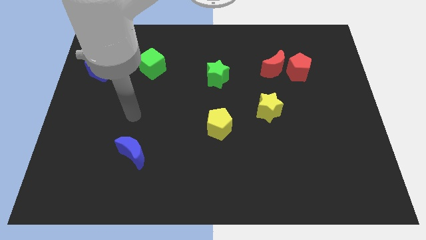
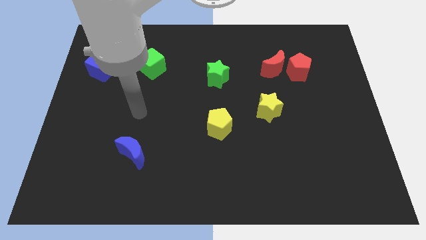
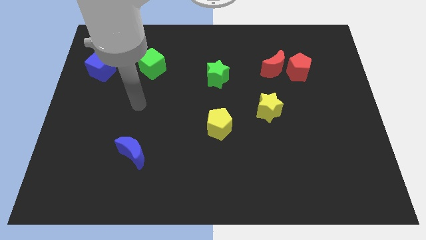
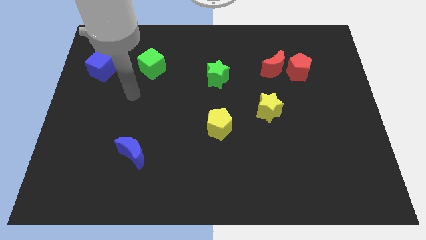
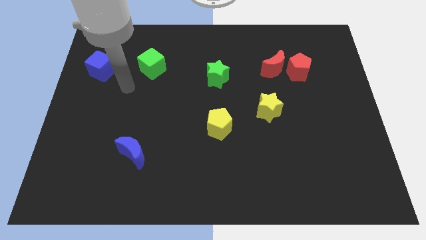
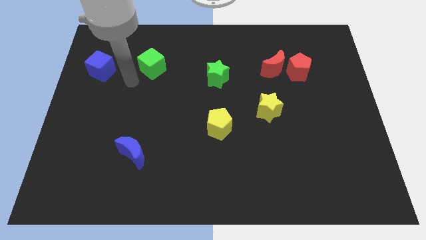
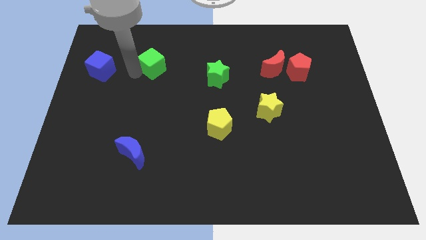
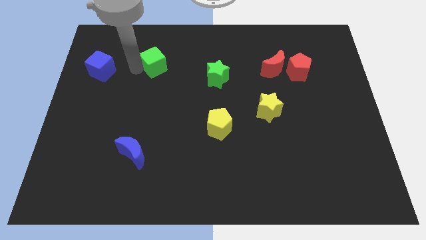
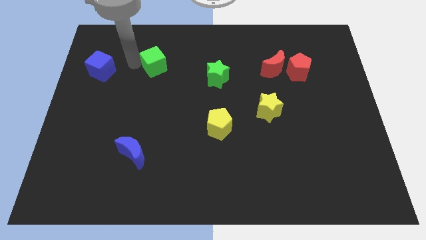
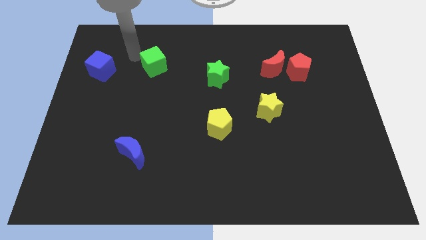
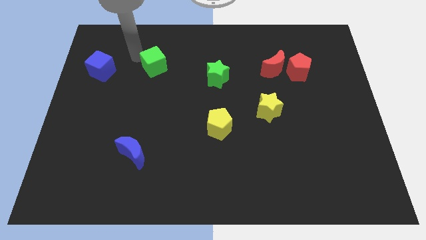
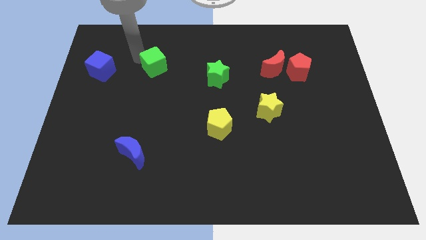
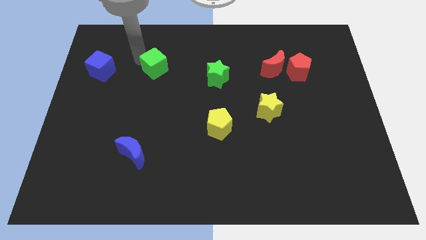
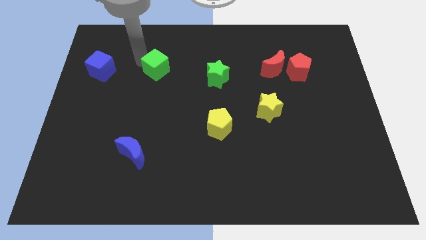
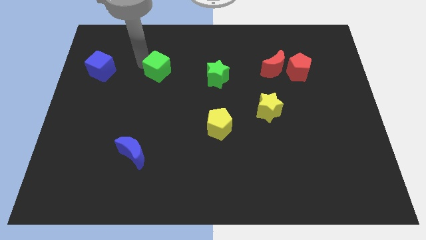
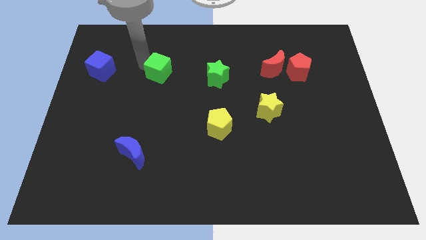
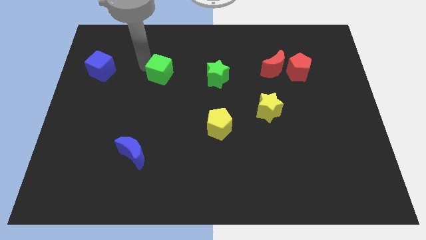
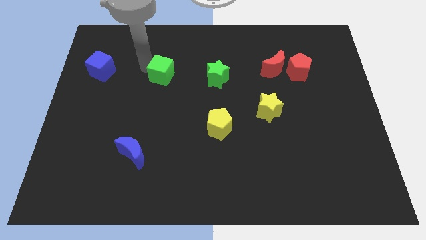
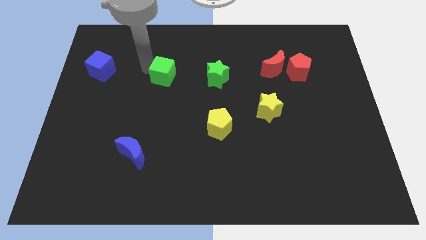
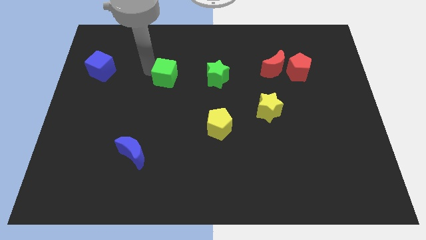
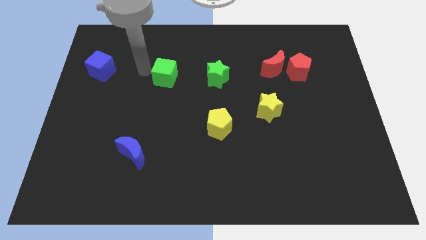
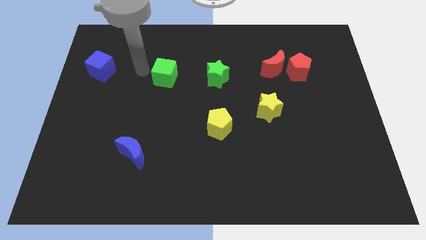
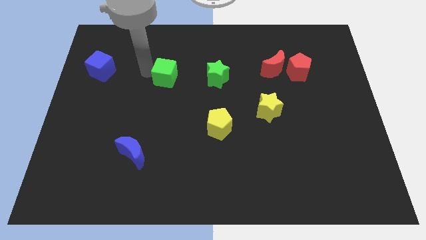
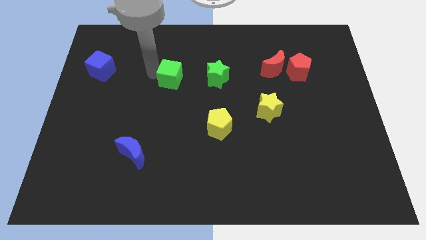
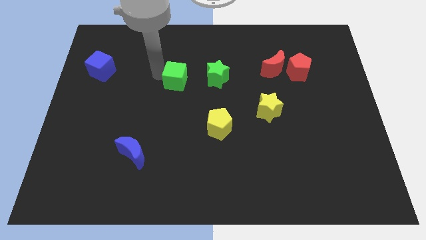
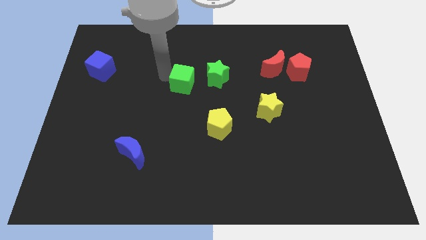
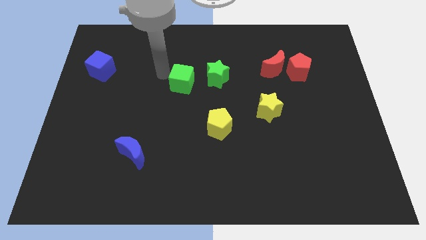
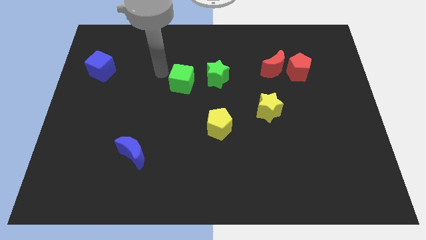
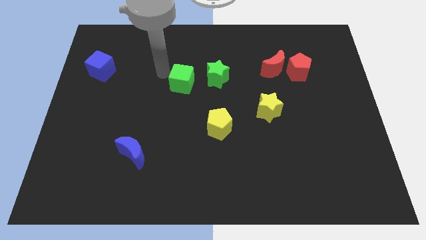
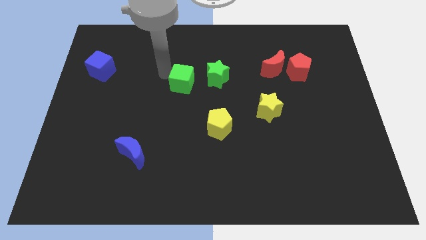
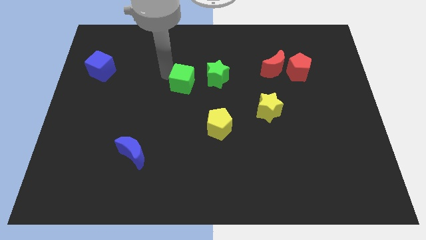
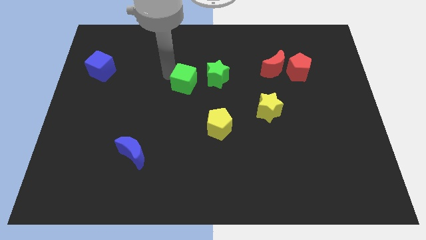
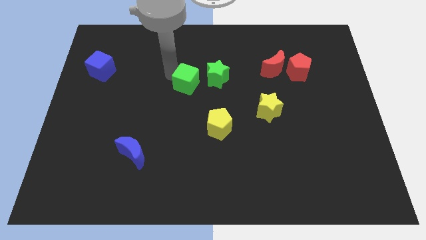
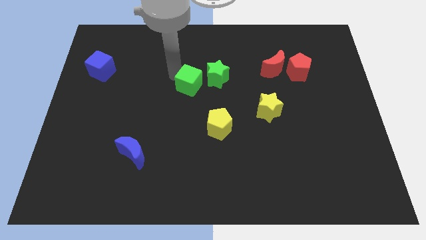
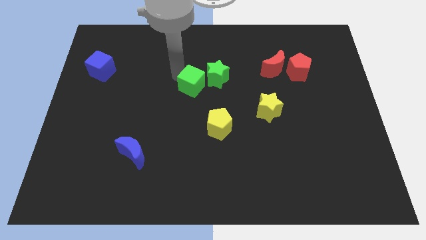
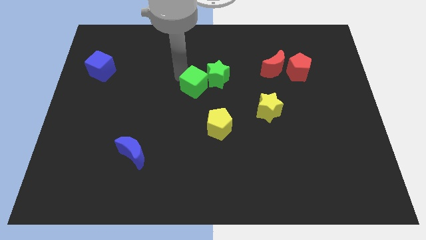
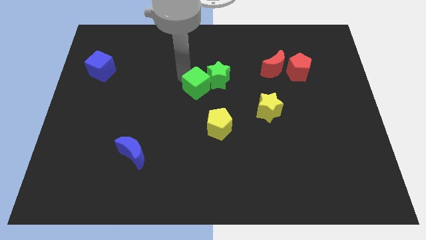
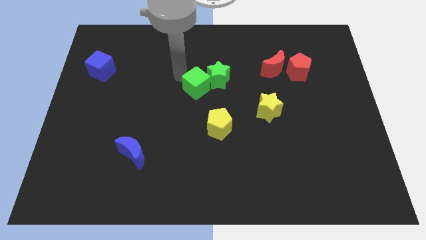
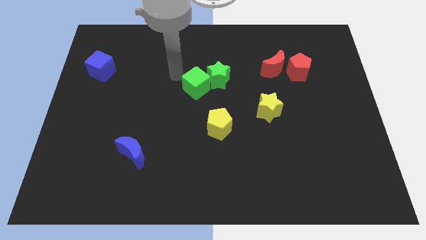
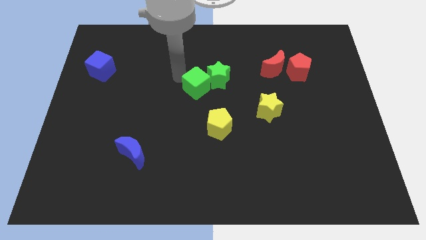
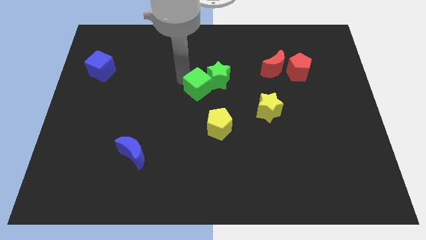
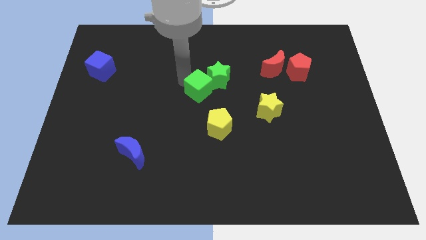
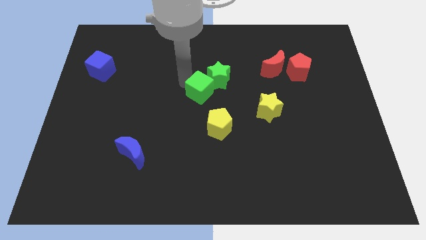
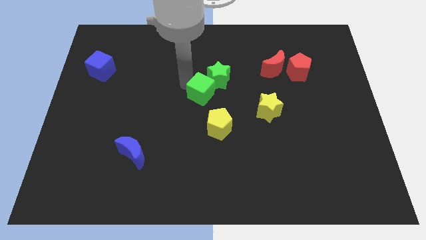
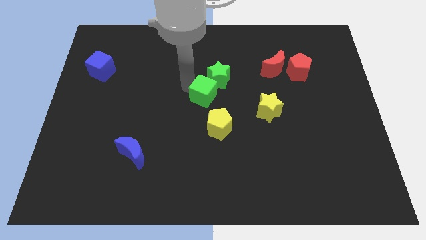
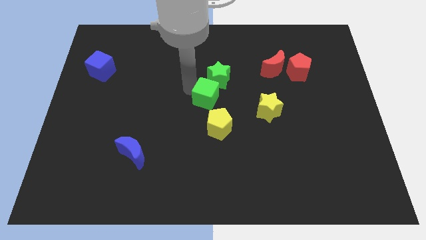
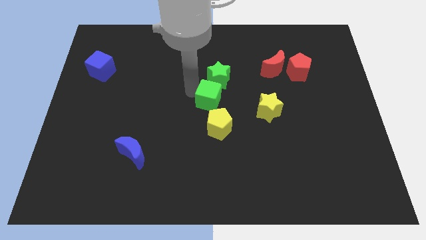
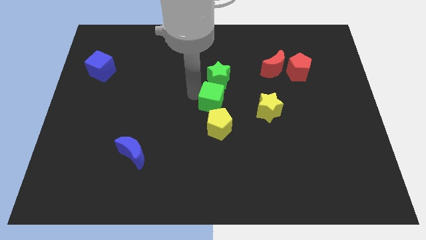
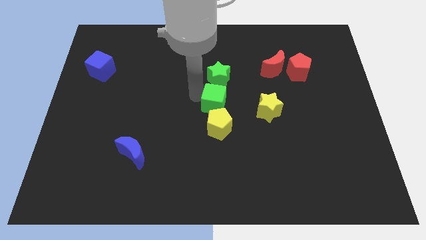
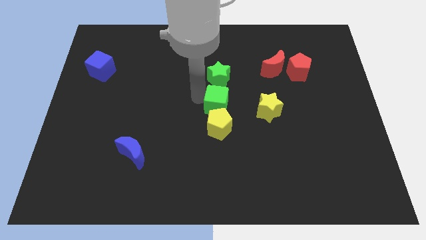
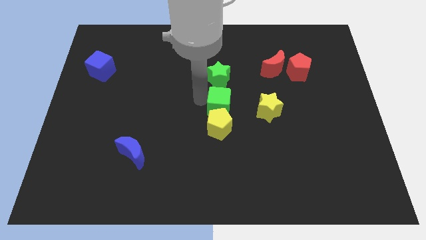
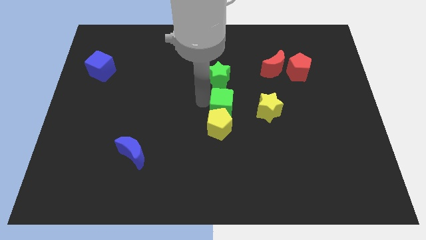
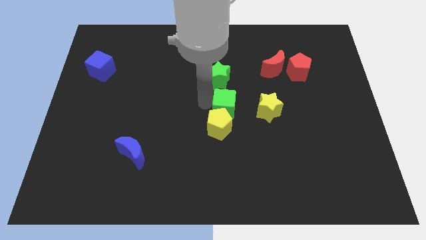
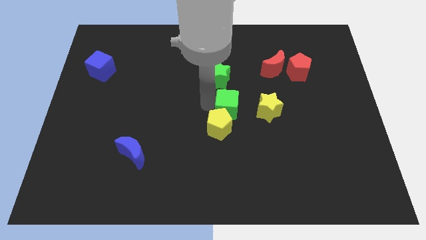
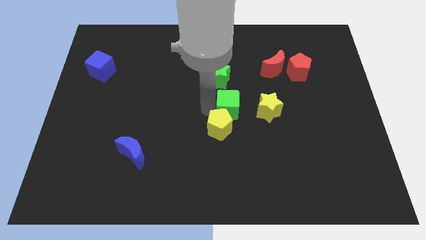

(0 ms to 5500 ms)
slide the green cube diagonally down and to the right of the green star

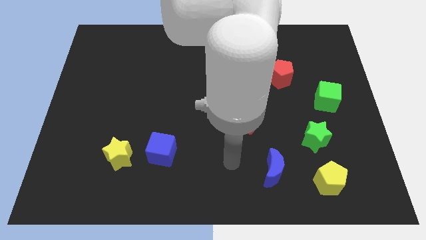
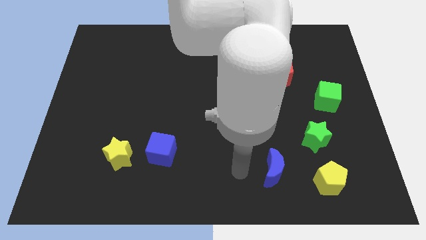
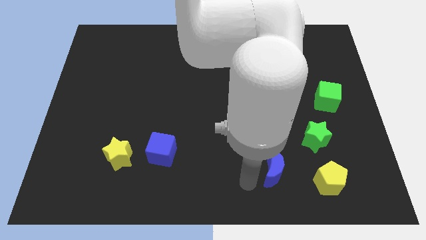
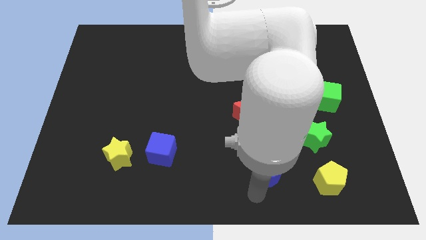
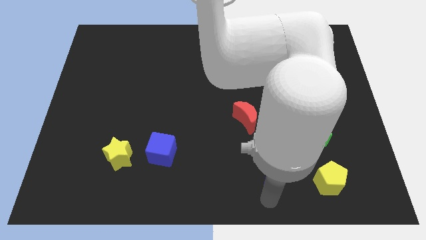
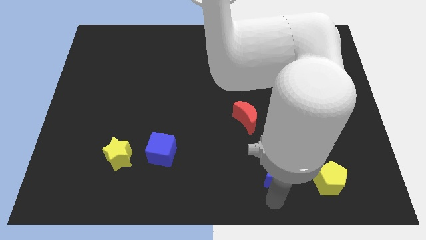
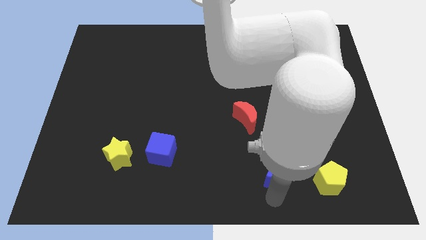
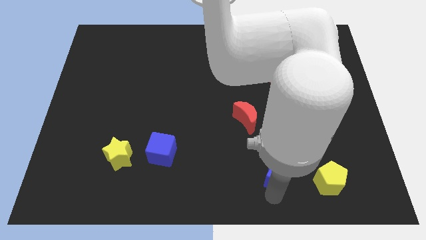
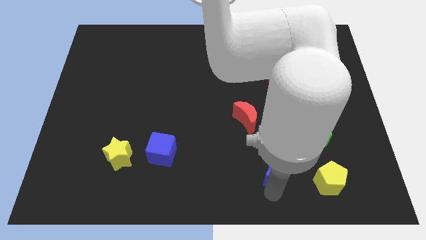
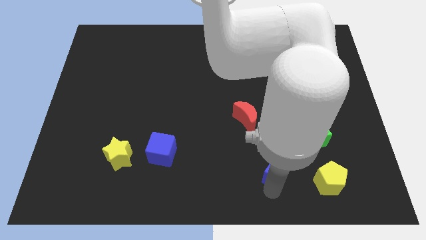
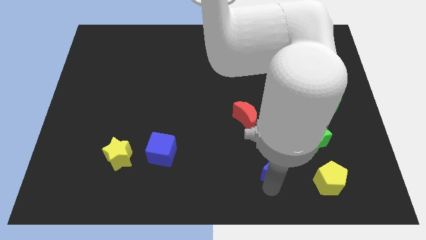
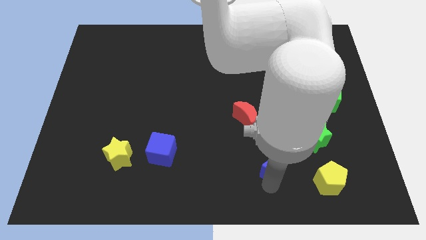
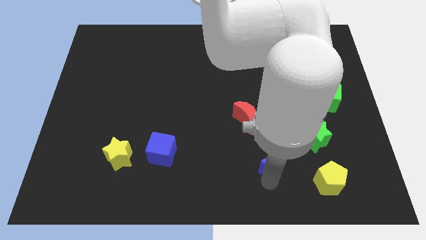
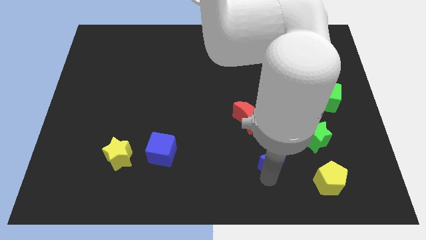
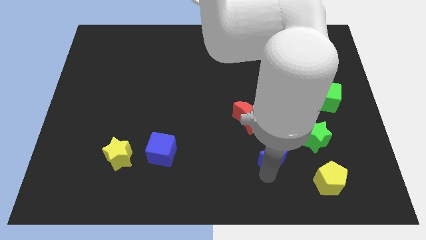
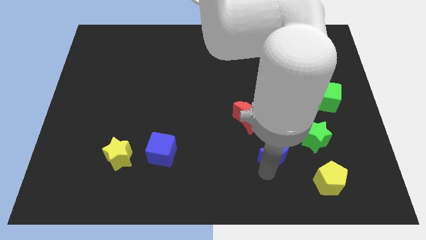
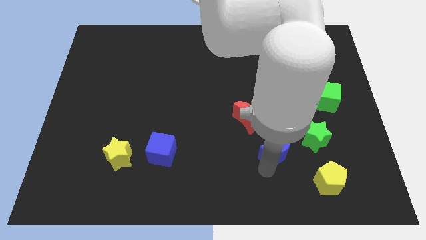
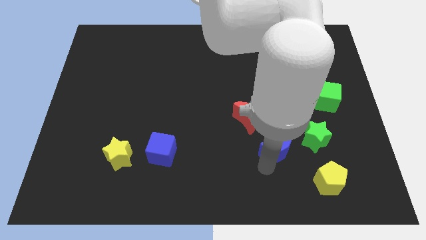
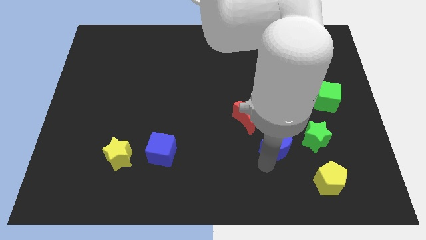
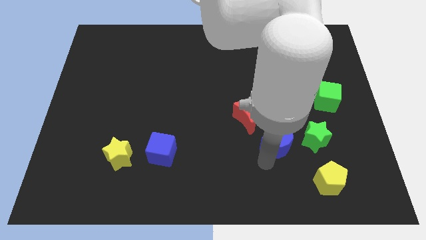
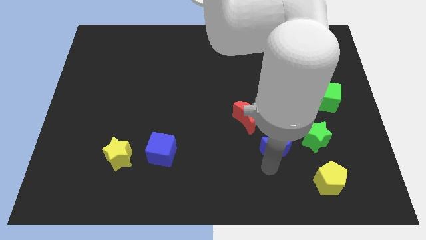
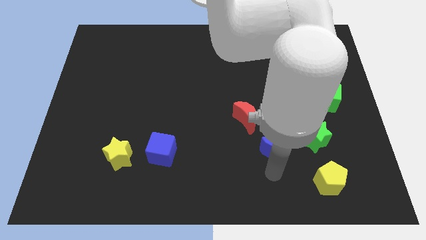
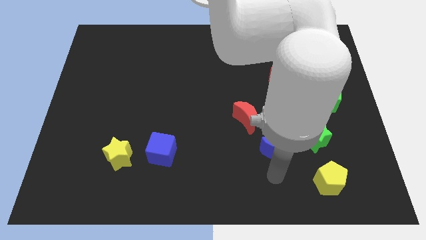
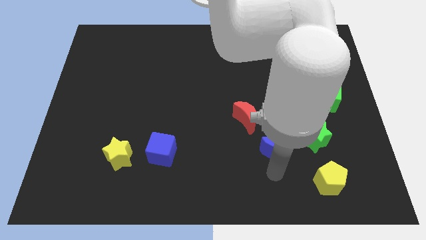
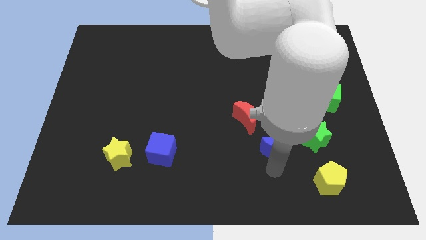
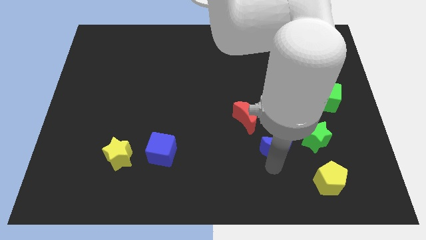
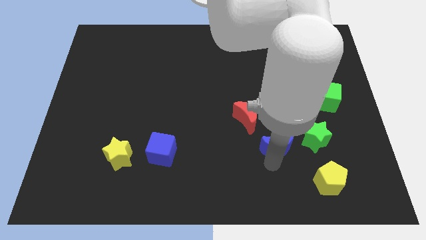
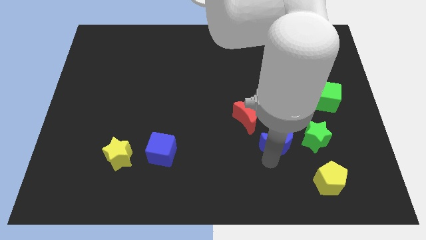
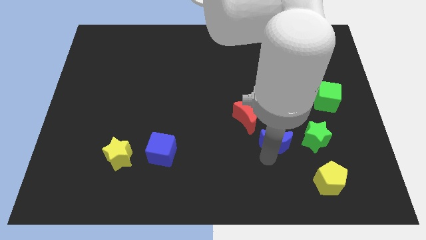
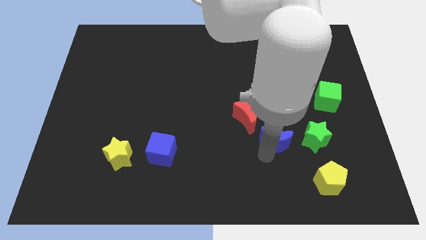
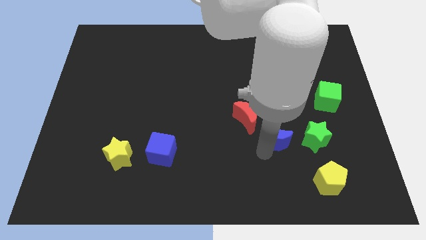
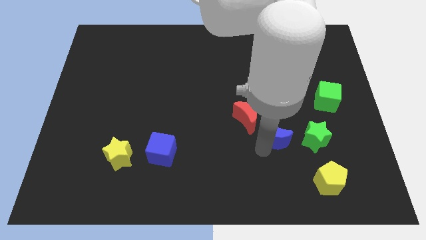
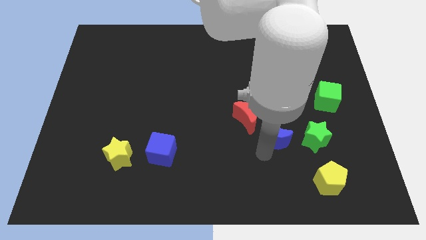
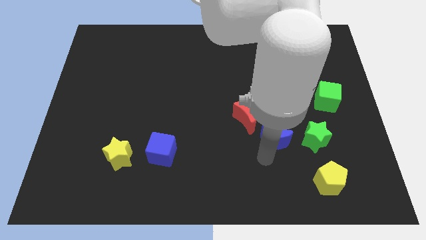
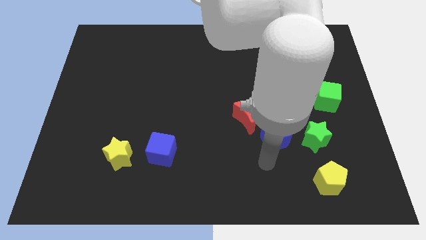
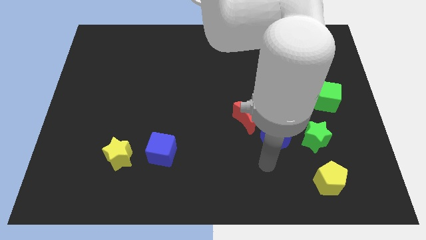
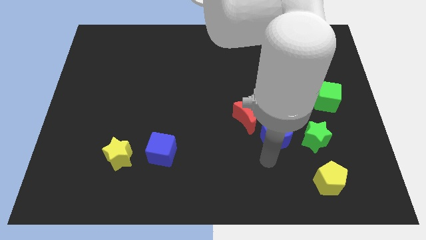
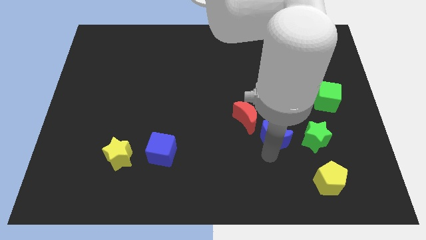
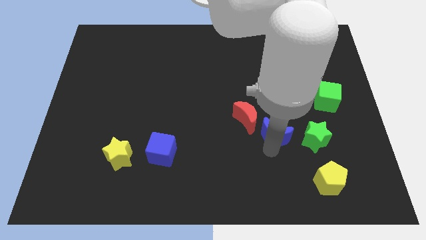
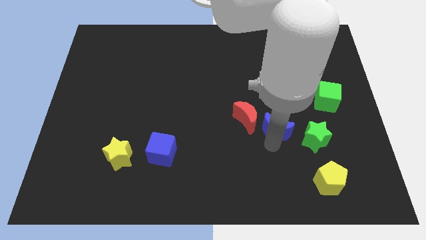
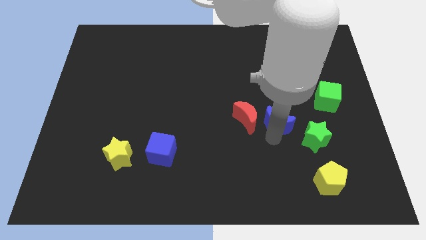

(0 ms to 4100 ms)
push the blue moon below the red pentagon
